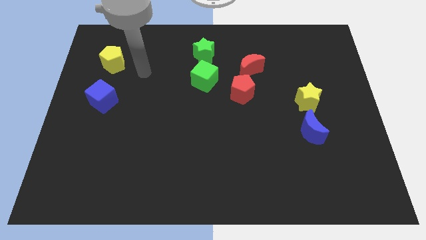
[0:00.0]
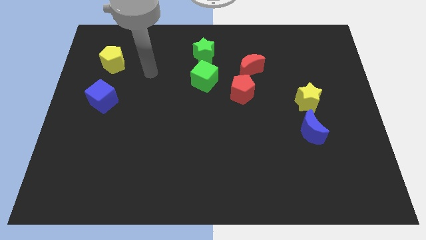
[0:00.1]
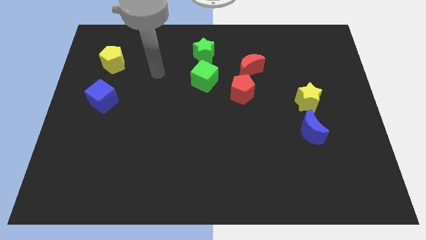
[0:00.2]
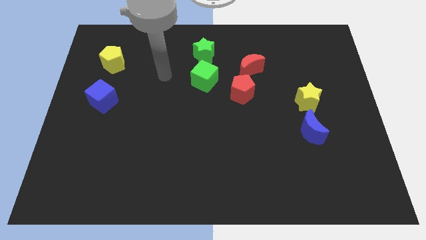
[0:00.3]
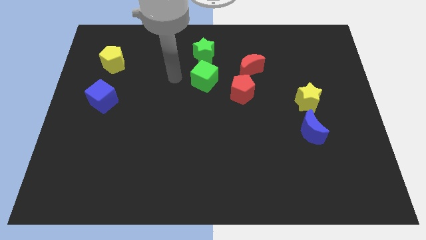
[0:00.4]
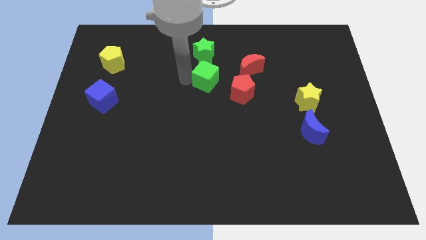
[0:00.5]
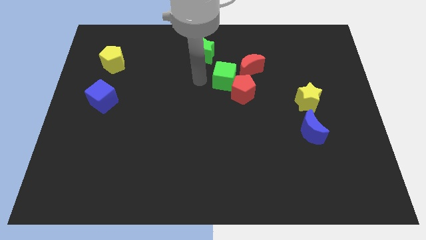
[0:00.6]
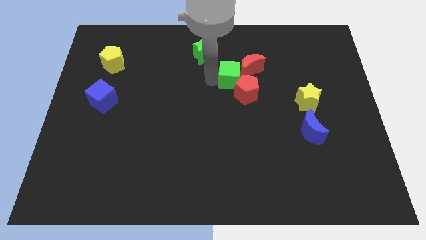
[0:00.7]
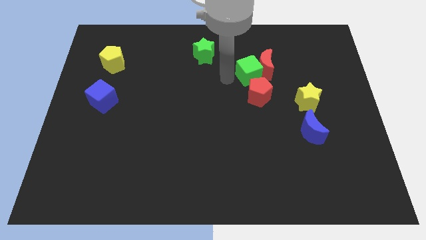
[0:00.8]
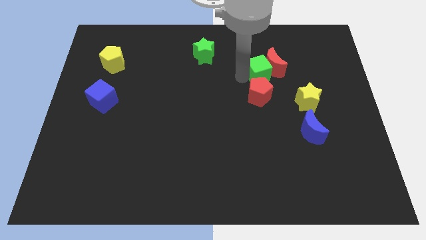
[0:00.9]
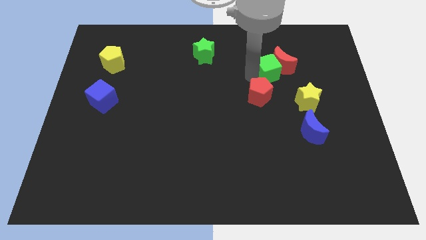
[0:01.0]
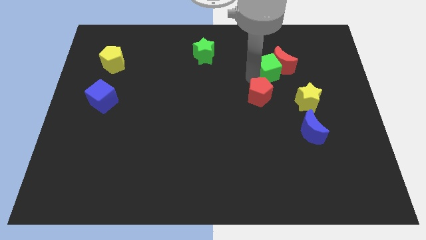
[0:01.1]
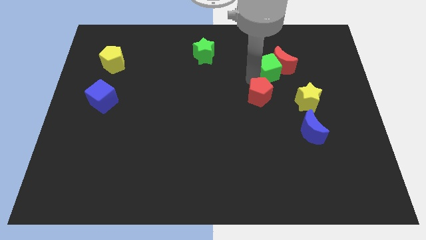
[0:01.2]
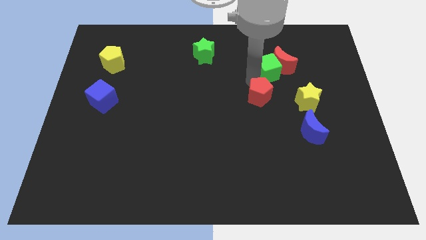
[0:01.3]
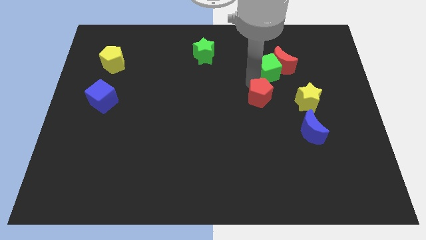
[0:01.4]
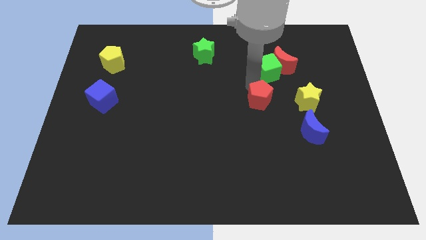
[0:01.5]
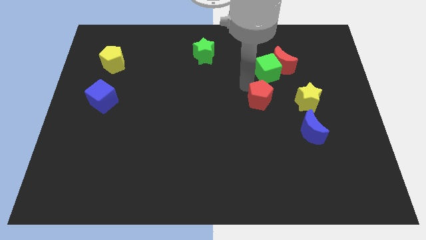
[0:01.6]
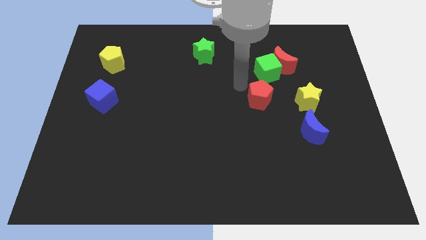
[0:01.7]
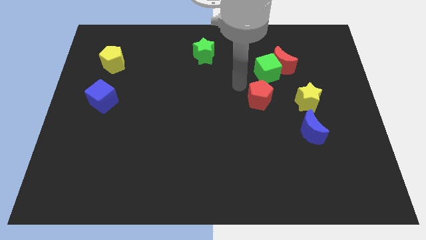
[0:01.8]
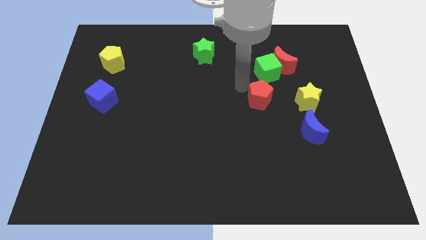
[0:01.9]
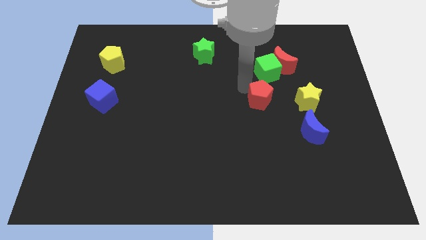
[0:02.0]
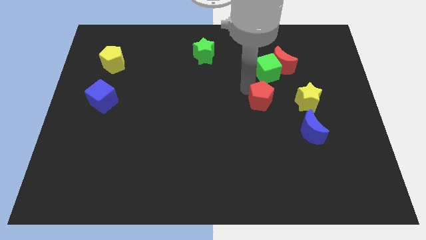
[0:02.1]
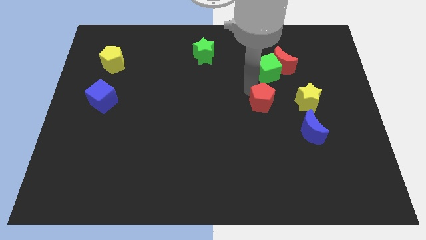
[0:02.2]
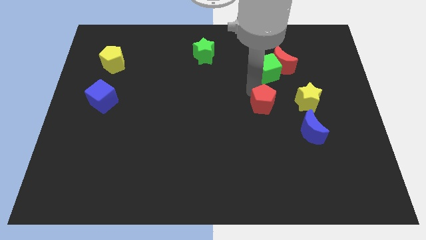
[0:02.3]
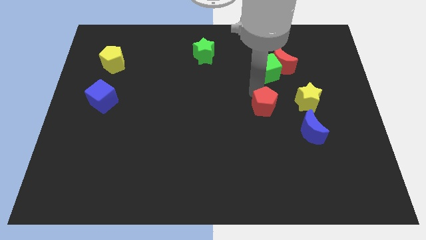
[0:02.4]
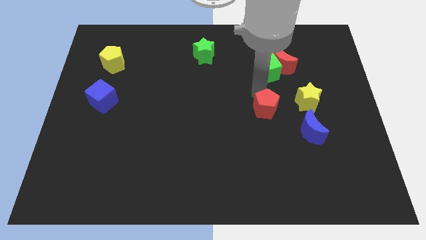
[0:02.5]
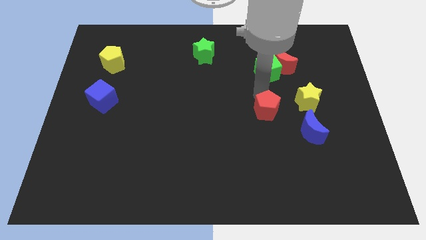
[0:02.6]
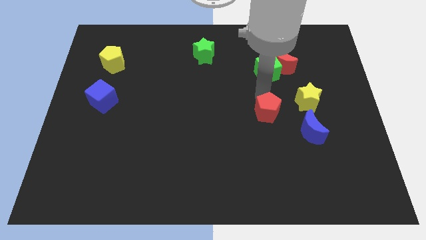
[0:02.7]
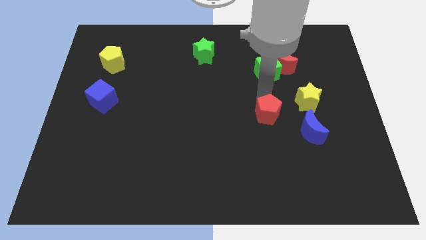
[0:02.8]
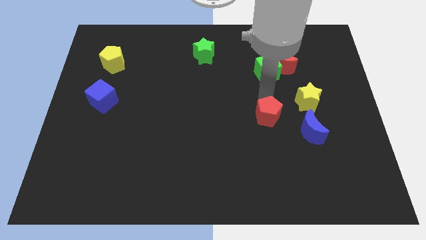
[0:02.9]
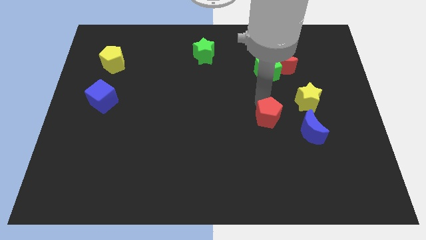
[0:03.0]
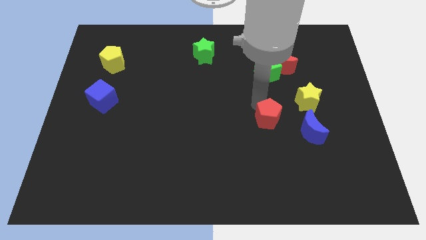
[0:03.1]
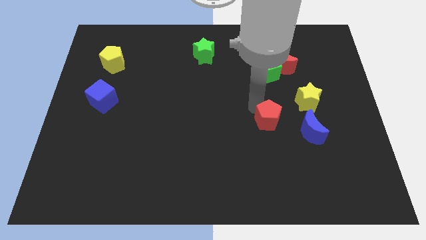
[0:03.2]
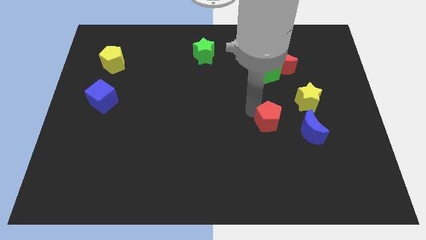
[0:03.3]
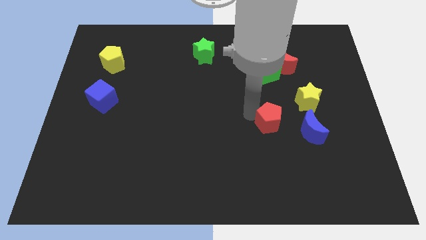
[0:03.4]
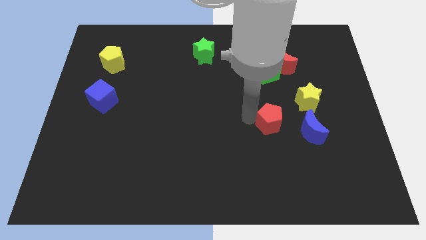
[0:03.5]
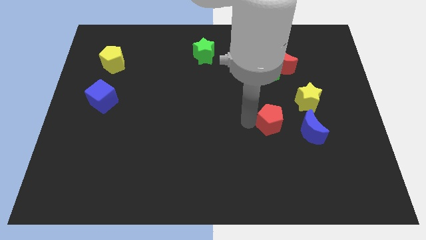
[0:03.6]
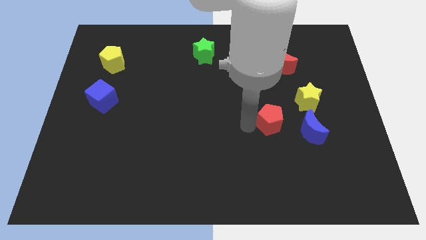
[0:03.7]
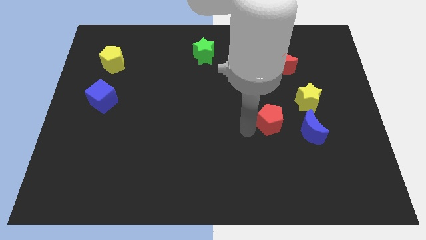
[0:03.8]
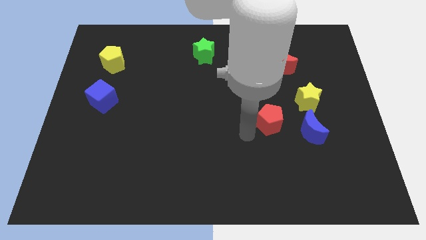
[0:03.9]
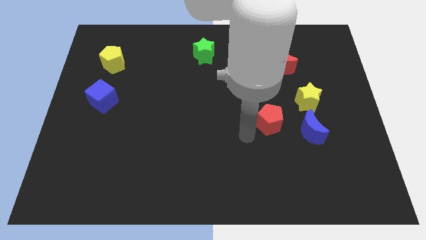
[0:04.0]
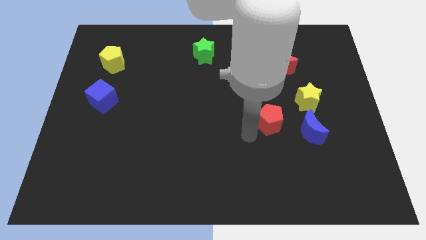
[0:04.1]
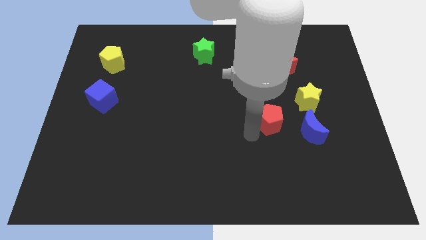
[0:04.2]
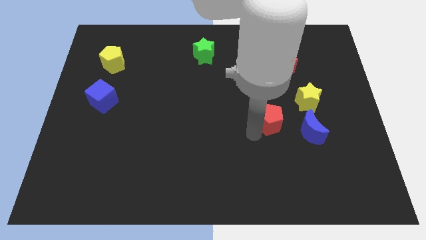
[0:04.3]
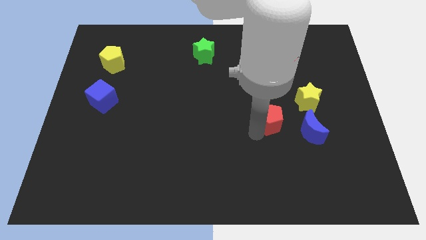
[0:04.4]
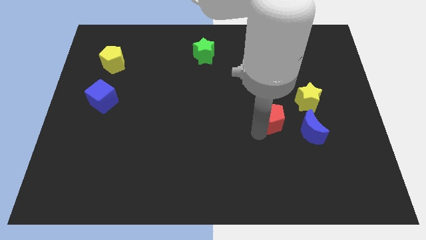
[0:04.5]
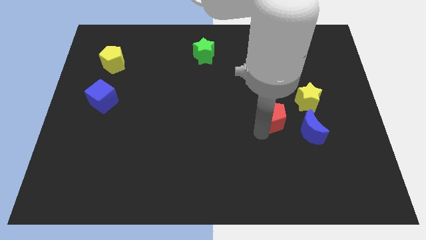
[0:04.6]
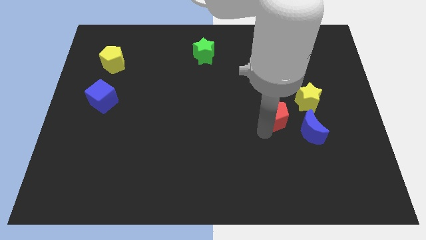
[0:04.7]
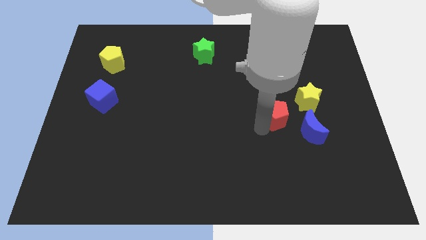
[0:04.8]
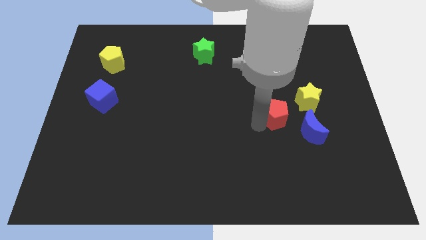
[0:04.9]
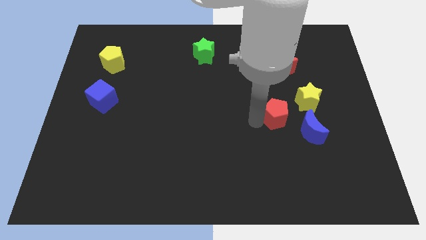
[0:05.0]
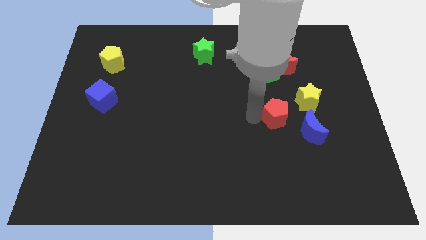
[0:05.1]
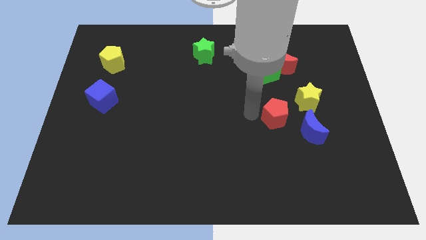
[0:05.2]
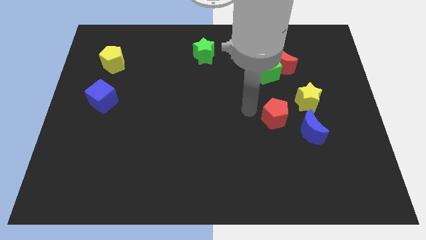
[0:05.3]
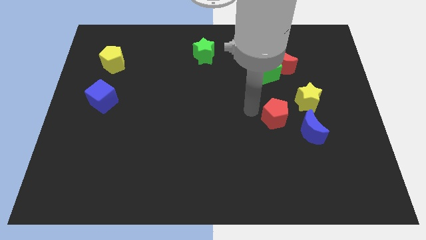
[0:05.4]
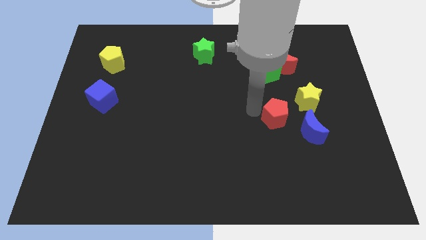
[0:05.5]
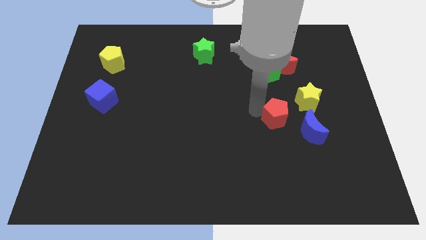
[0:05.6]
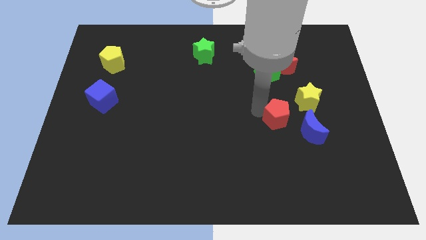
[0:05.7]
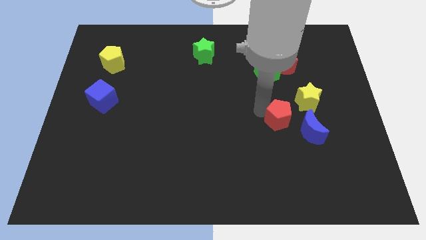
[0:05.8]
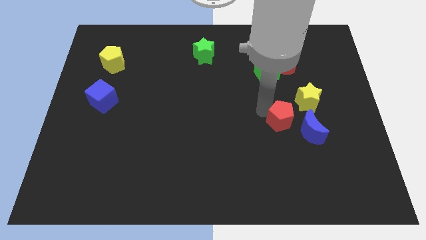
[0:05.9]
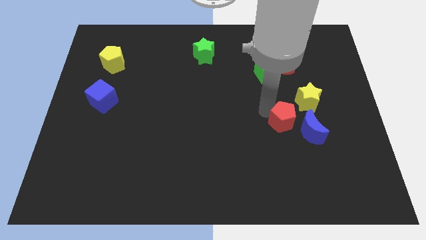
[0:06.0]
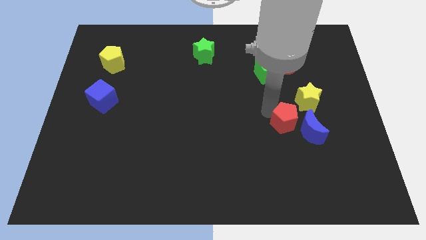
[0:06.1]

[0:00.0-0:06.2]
slide the red pentagon next to the blue moon

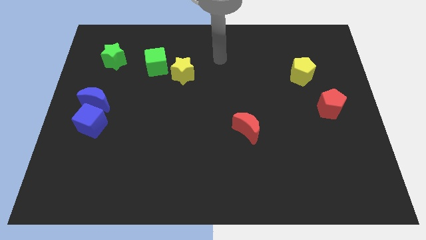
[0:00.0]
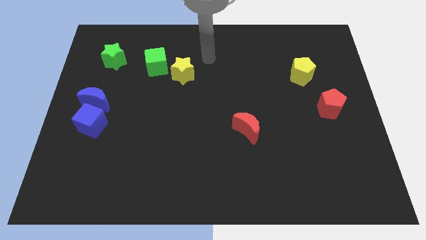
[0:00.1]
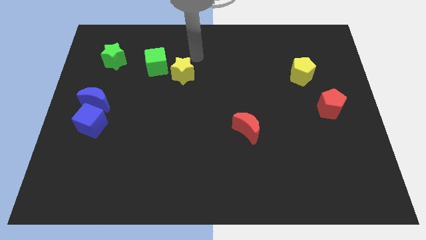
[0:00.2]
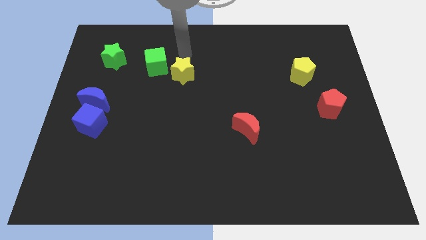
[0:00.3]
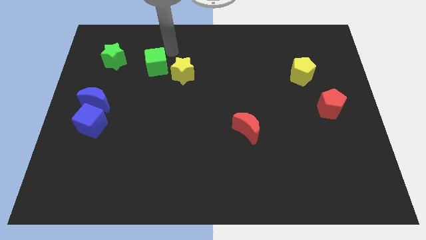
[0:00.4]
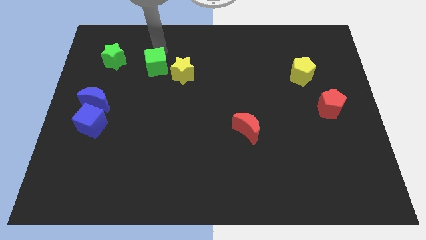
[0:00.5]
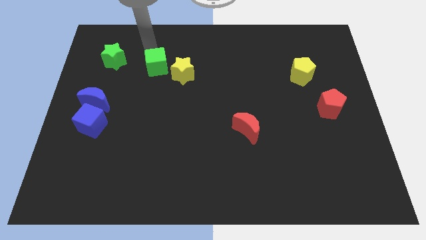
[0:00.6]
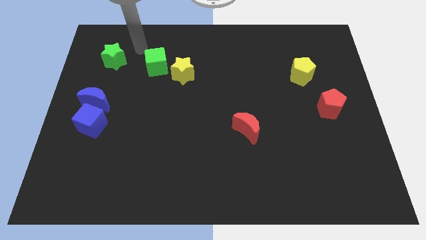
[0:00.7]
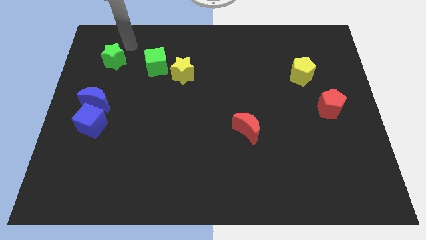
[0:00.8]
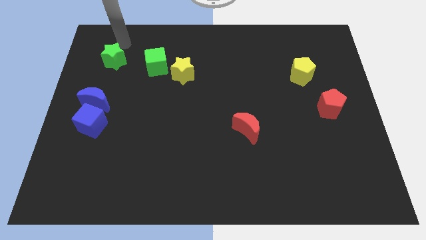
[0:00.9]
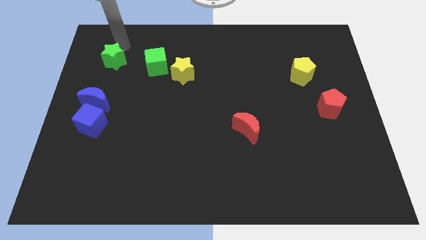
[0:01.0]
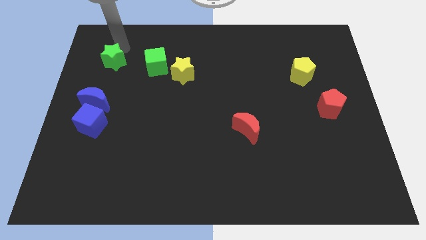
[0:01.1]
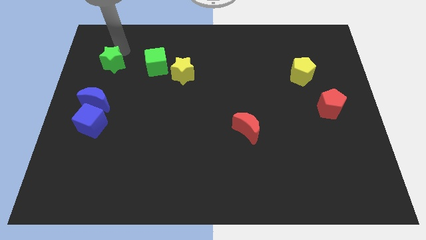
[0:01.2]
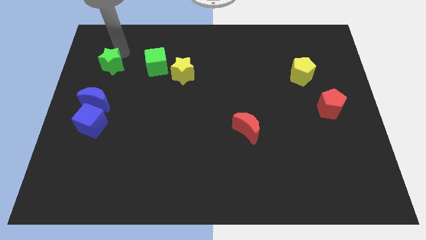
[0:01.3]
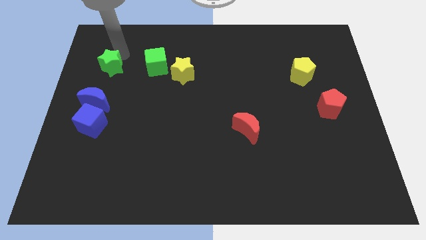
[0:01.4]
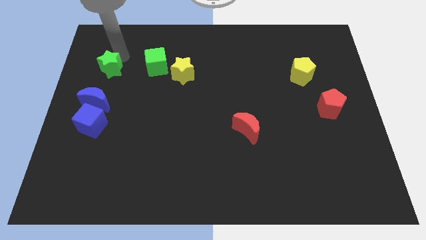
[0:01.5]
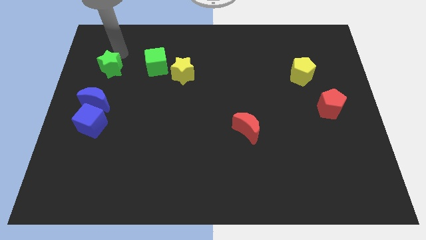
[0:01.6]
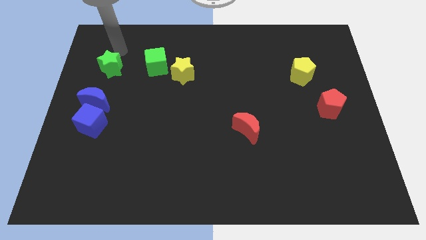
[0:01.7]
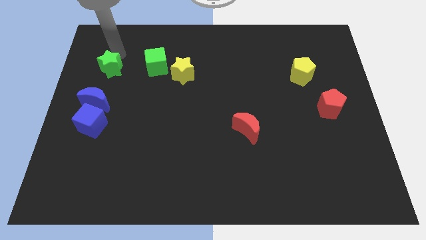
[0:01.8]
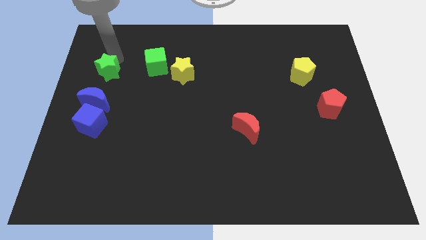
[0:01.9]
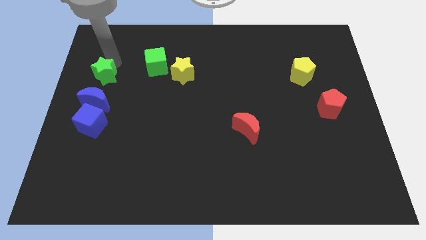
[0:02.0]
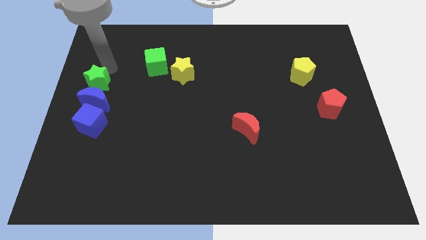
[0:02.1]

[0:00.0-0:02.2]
push the green star towards the blue moon
